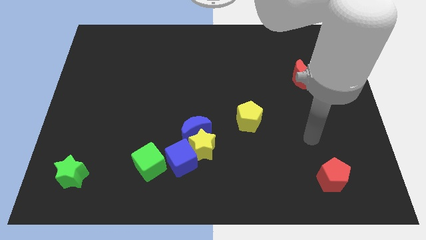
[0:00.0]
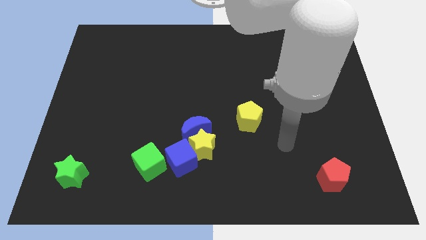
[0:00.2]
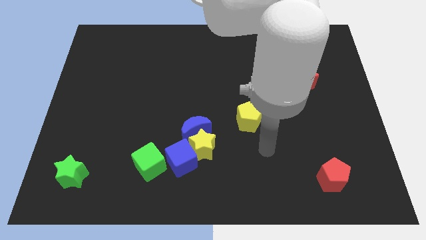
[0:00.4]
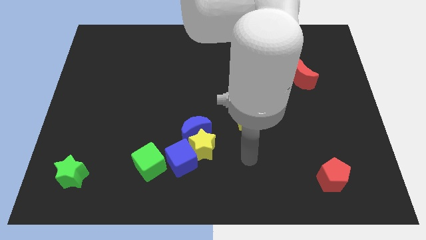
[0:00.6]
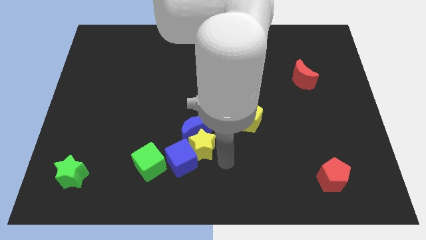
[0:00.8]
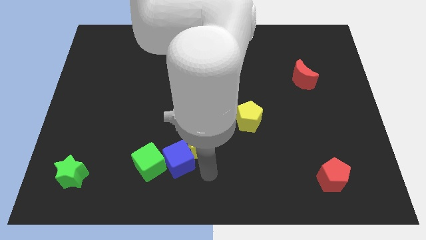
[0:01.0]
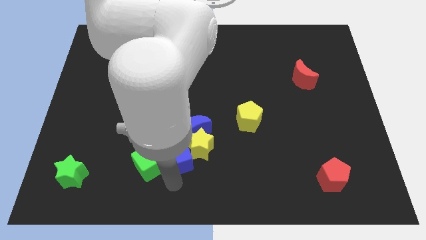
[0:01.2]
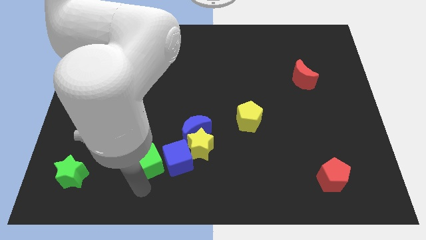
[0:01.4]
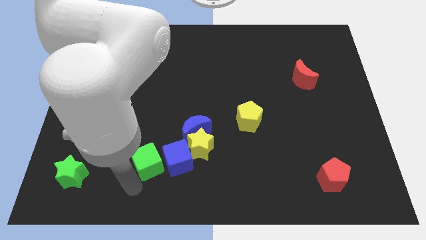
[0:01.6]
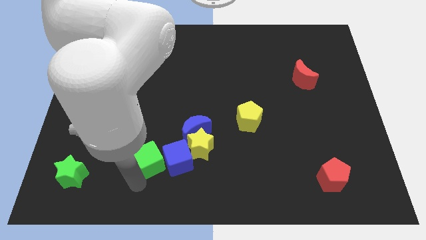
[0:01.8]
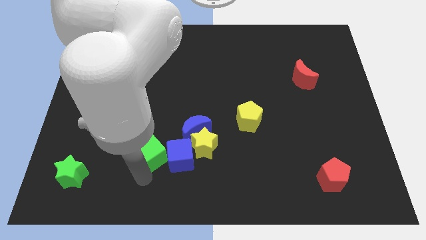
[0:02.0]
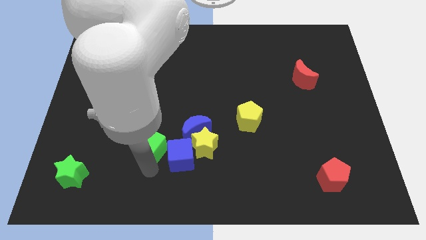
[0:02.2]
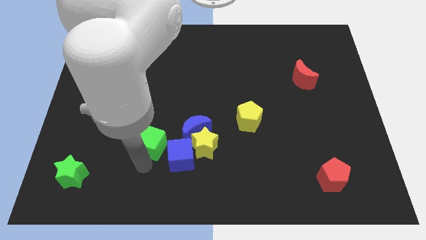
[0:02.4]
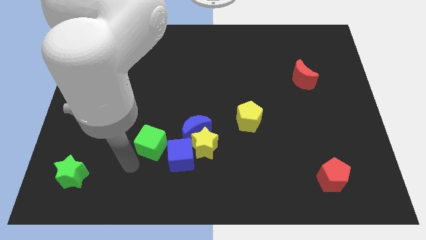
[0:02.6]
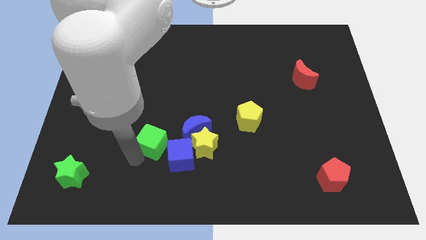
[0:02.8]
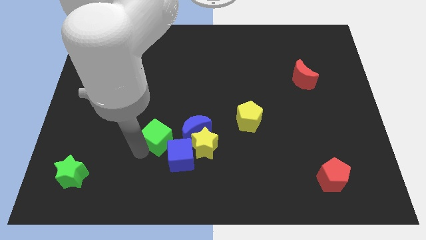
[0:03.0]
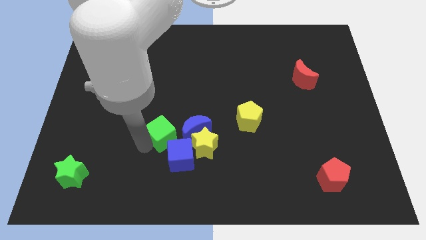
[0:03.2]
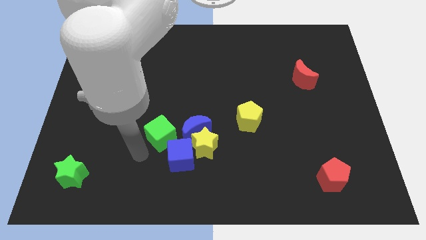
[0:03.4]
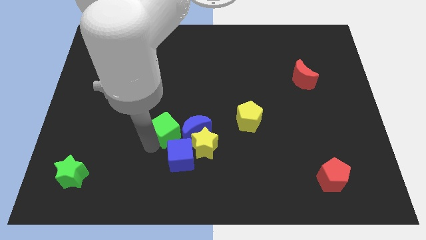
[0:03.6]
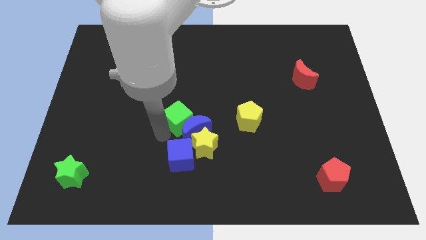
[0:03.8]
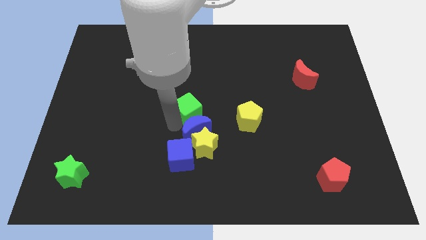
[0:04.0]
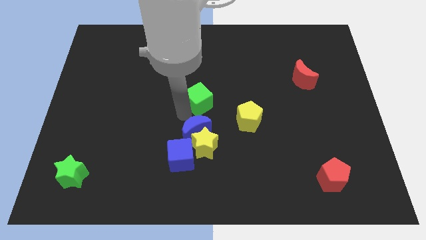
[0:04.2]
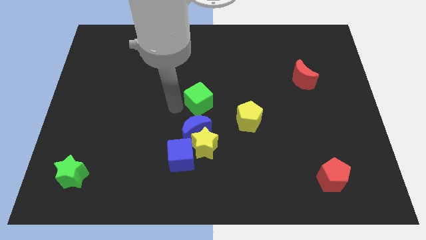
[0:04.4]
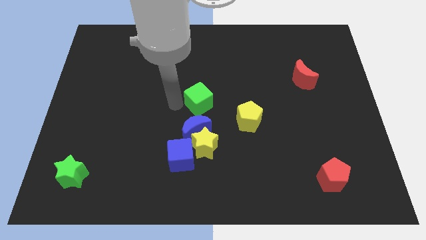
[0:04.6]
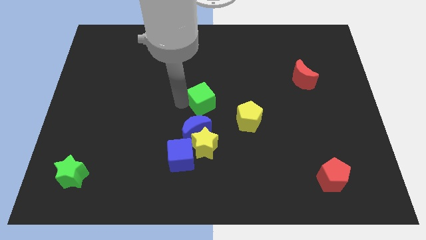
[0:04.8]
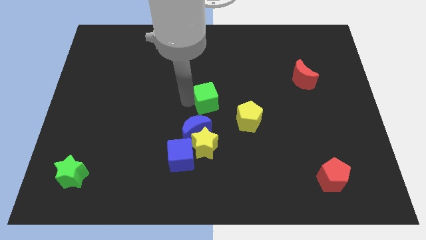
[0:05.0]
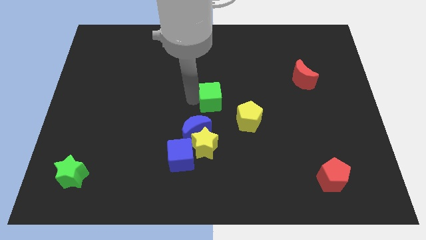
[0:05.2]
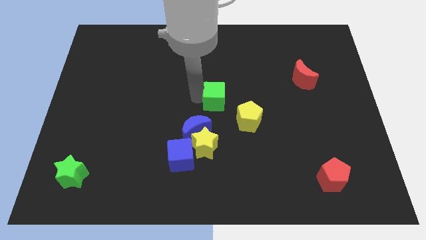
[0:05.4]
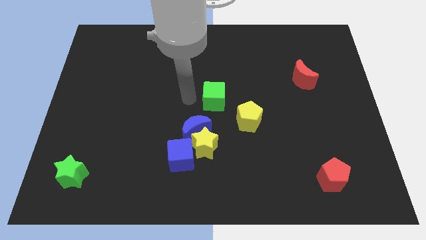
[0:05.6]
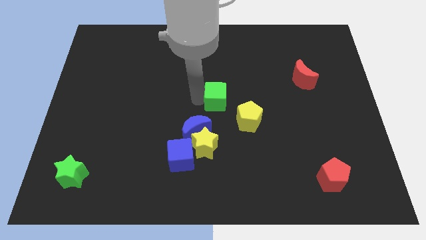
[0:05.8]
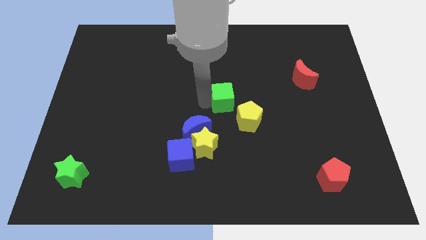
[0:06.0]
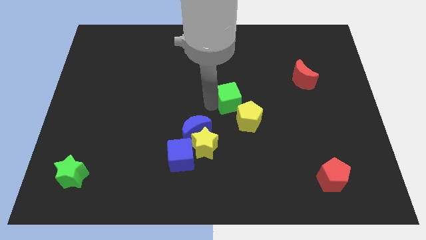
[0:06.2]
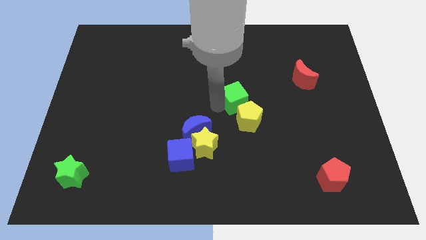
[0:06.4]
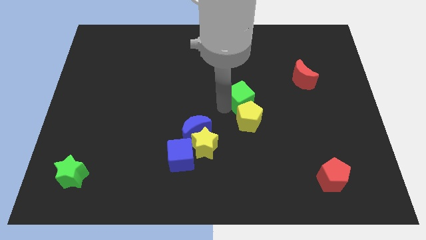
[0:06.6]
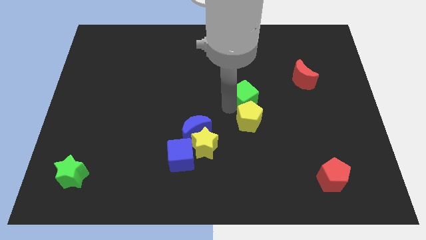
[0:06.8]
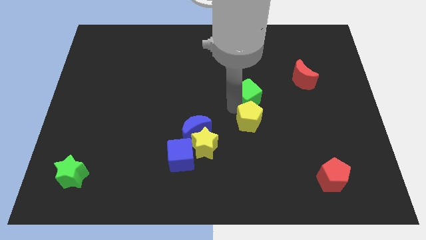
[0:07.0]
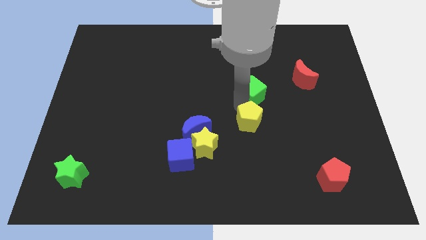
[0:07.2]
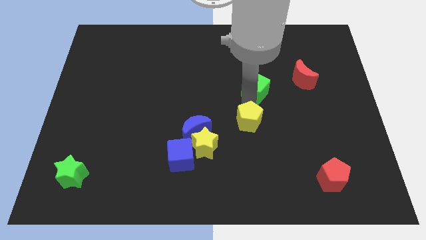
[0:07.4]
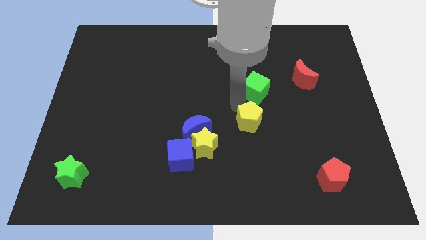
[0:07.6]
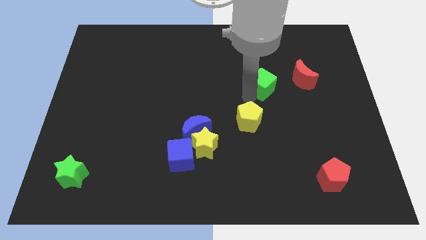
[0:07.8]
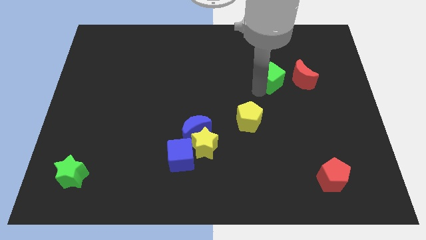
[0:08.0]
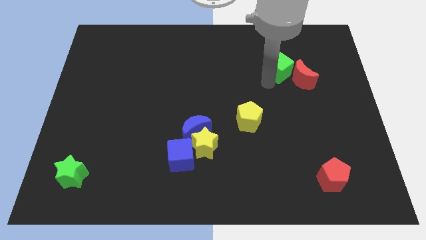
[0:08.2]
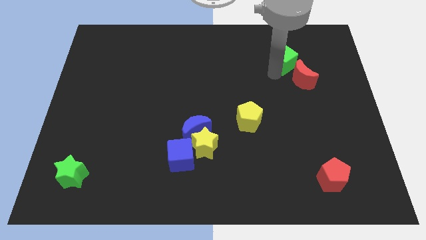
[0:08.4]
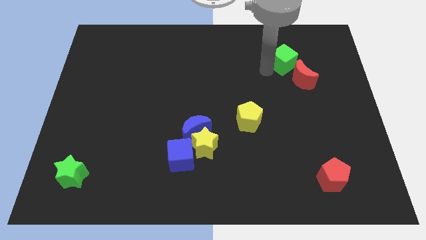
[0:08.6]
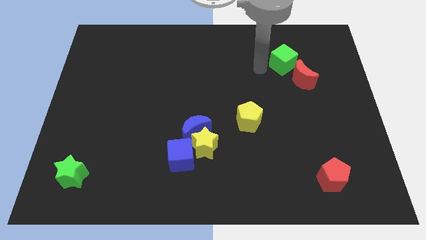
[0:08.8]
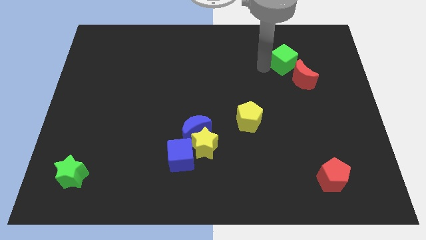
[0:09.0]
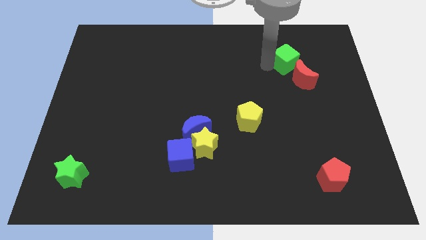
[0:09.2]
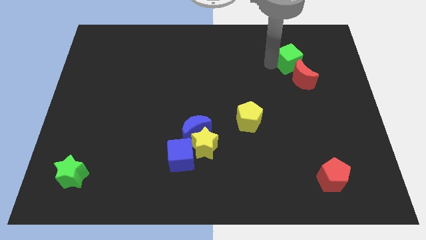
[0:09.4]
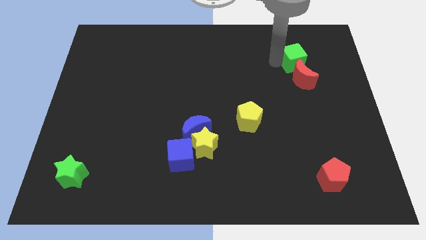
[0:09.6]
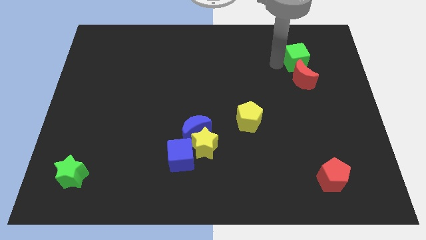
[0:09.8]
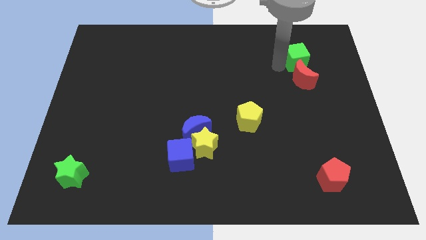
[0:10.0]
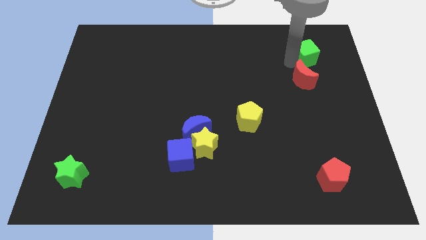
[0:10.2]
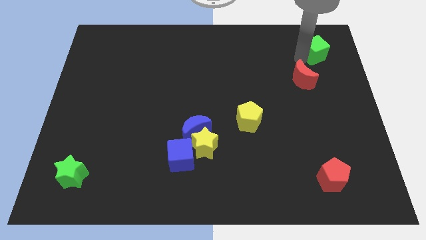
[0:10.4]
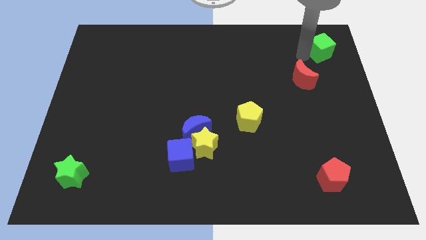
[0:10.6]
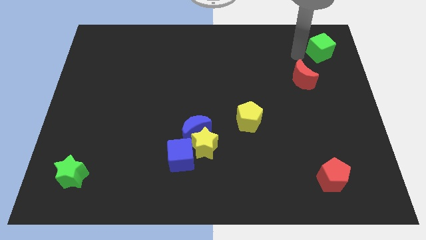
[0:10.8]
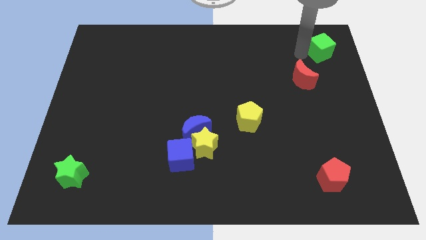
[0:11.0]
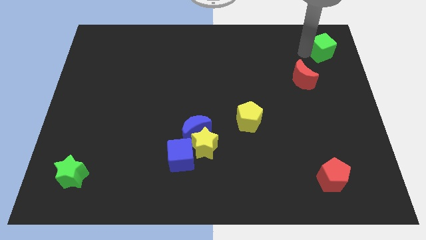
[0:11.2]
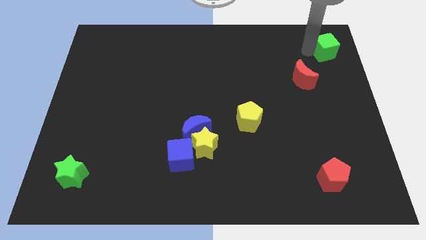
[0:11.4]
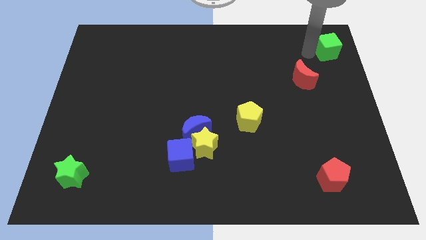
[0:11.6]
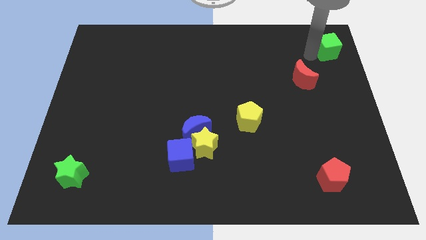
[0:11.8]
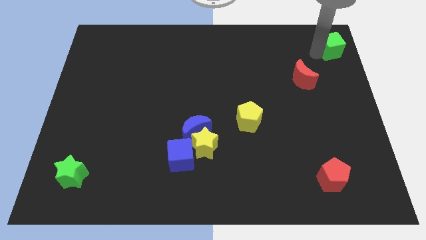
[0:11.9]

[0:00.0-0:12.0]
move the green cube to the top right
